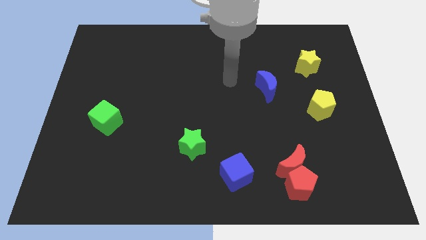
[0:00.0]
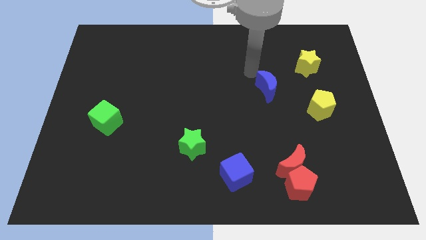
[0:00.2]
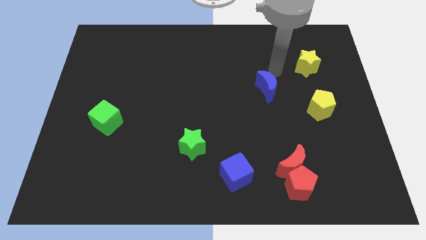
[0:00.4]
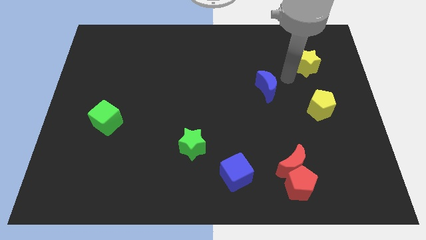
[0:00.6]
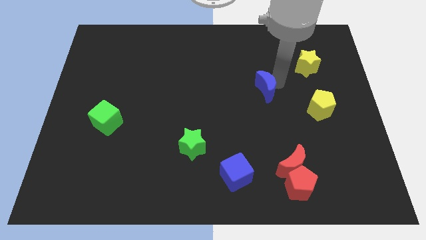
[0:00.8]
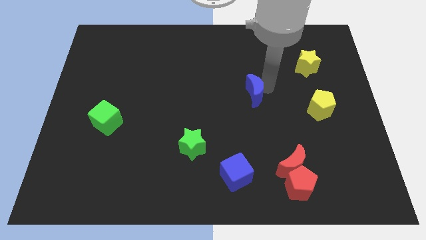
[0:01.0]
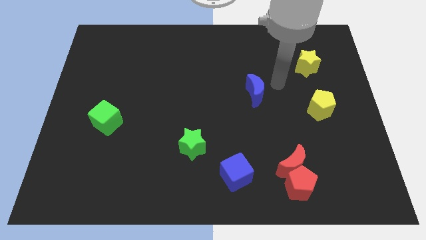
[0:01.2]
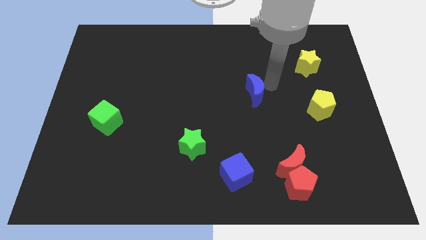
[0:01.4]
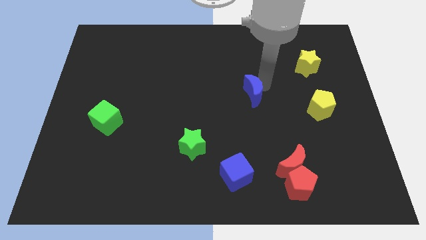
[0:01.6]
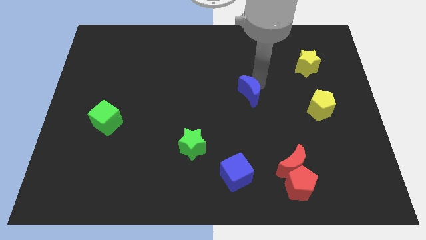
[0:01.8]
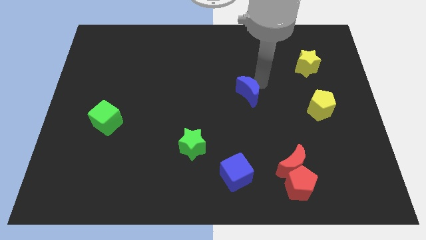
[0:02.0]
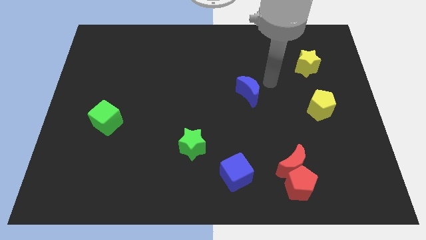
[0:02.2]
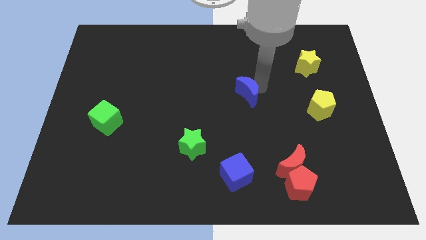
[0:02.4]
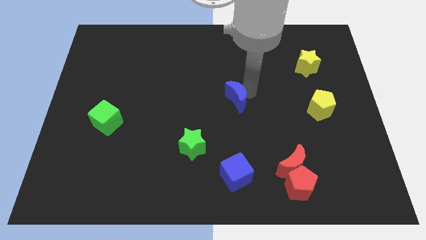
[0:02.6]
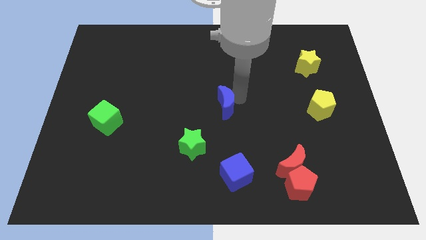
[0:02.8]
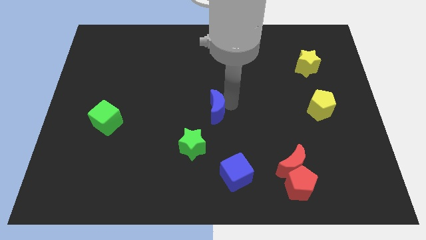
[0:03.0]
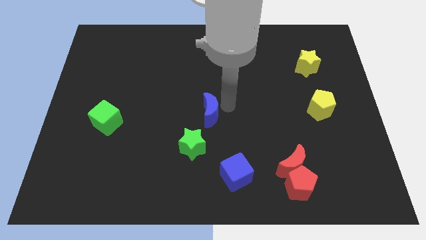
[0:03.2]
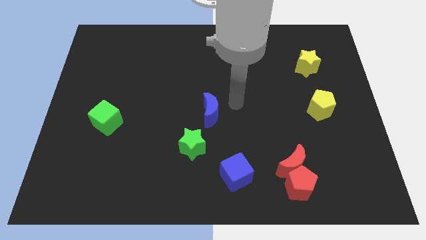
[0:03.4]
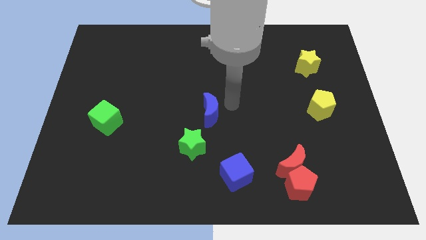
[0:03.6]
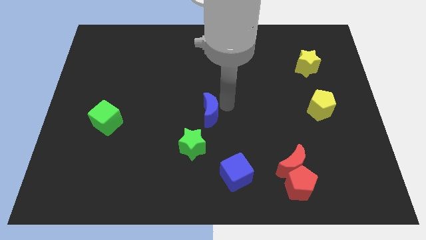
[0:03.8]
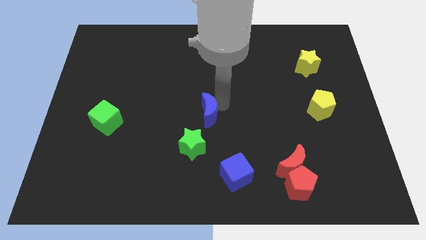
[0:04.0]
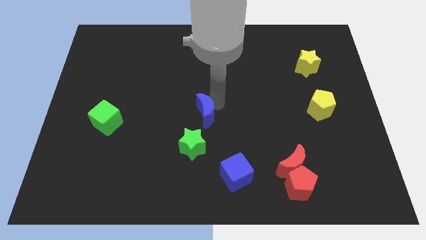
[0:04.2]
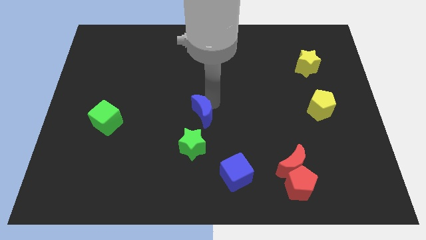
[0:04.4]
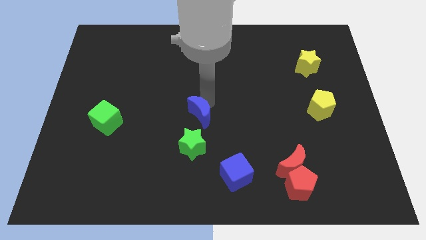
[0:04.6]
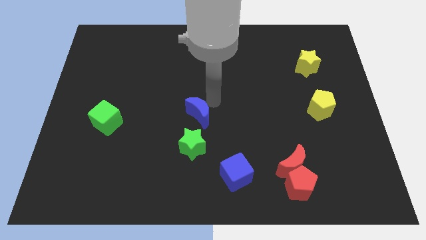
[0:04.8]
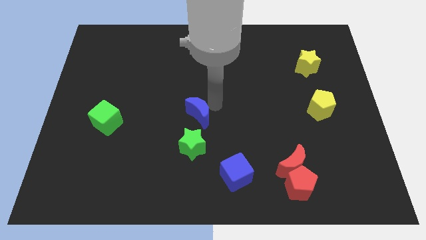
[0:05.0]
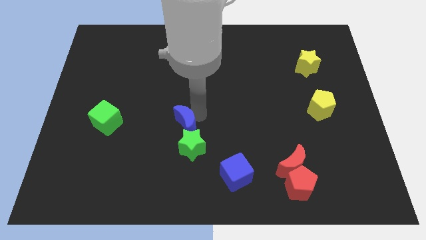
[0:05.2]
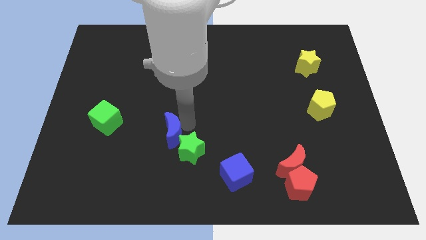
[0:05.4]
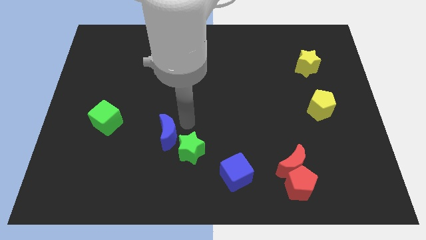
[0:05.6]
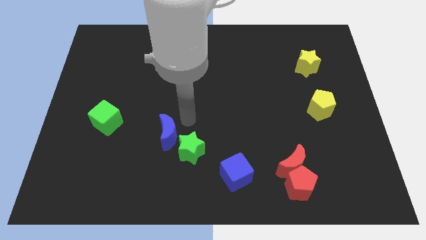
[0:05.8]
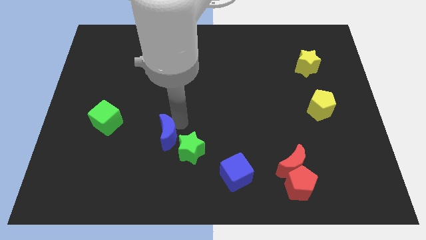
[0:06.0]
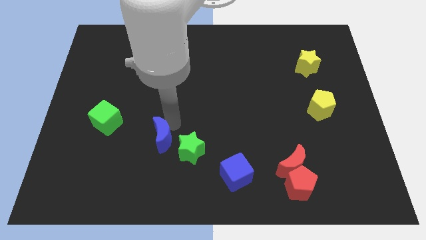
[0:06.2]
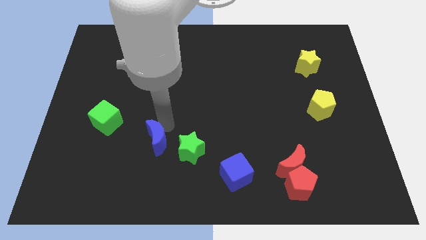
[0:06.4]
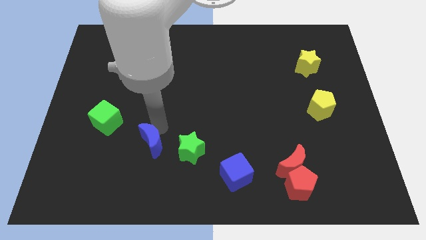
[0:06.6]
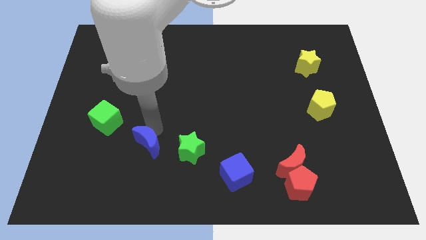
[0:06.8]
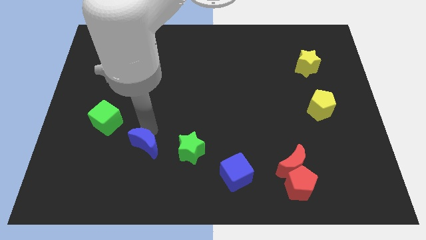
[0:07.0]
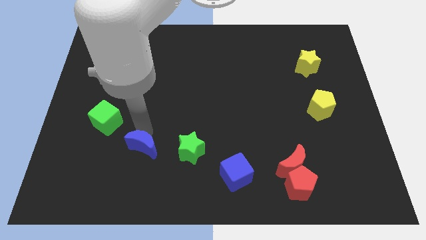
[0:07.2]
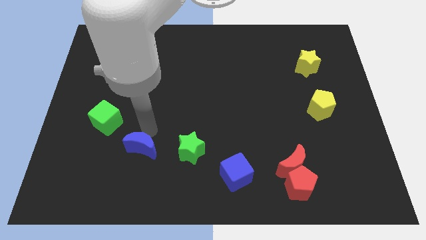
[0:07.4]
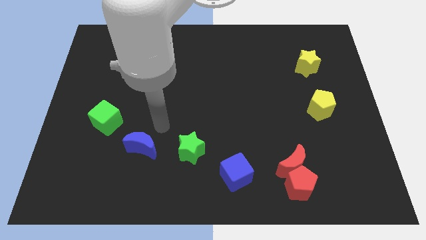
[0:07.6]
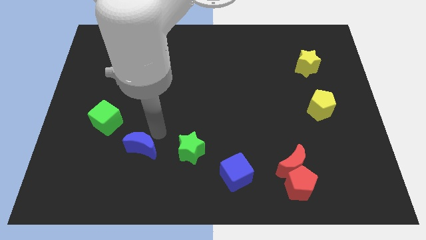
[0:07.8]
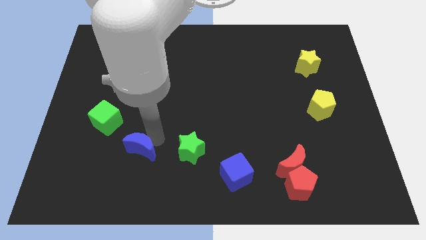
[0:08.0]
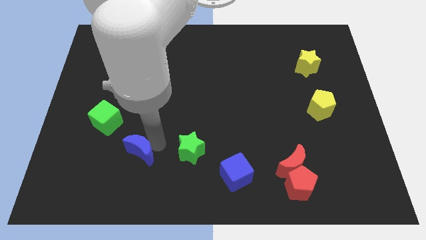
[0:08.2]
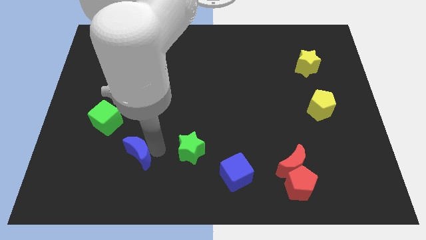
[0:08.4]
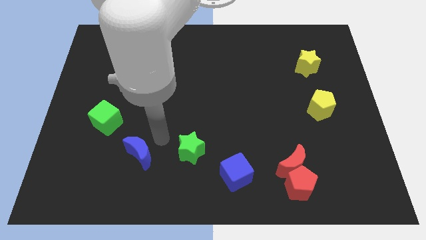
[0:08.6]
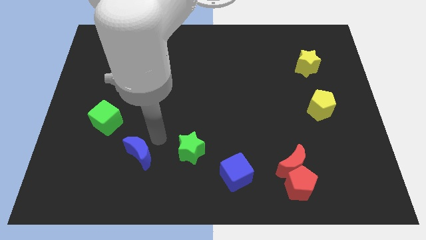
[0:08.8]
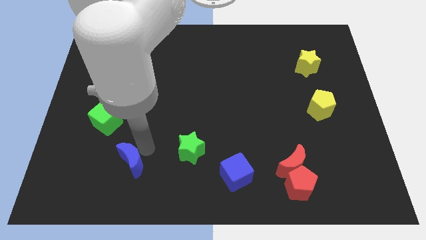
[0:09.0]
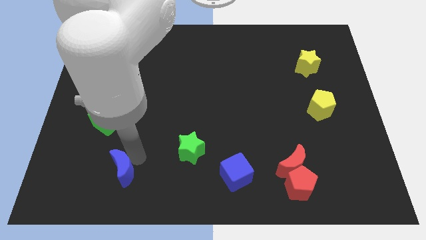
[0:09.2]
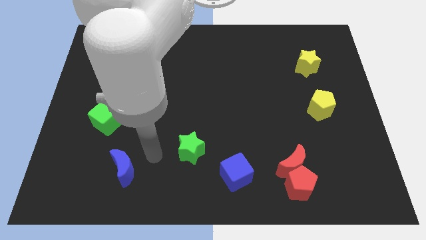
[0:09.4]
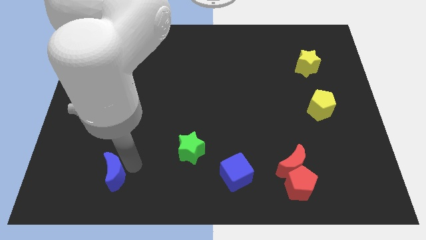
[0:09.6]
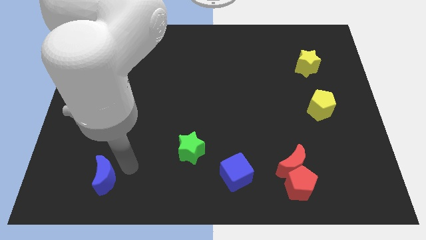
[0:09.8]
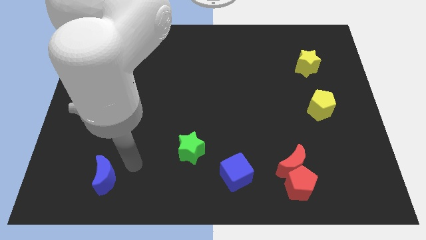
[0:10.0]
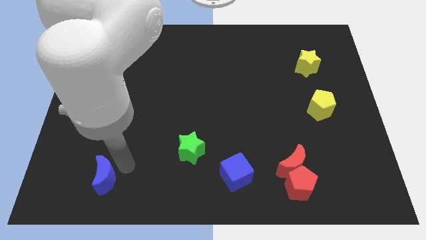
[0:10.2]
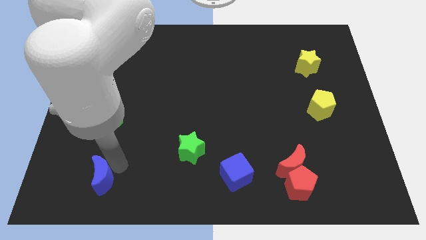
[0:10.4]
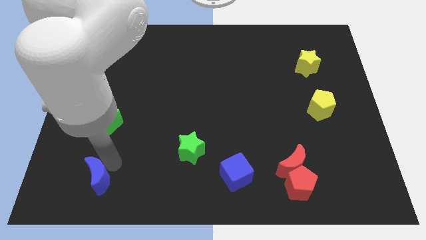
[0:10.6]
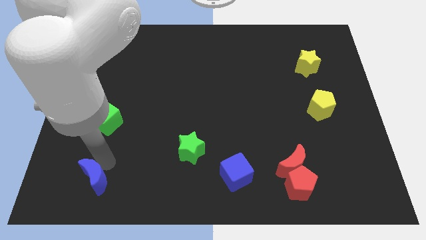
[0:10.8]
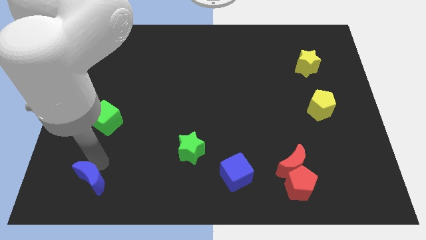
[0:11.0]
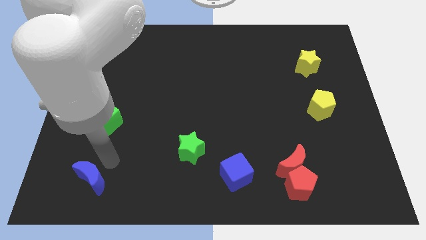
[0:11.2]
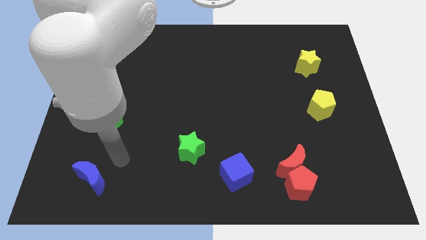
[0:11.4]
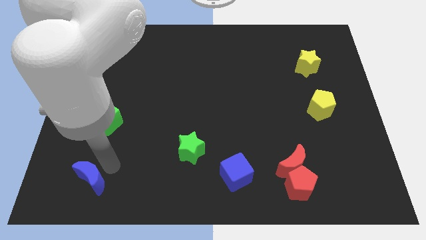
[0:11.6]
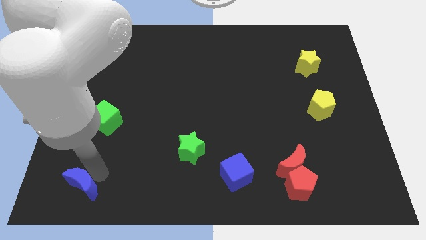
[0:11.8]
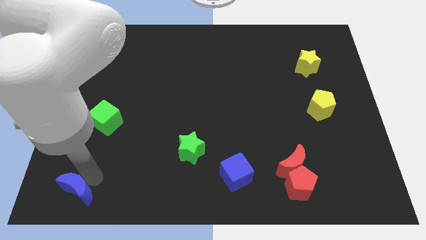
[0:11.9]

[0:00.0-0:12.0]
put the blue moon to the bottom left corner

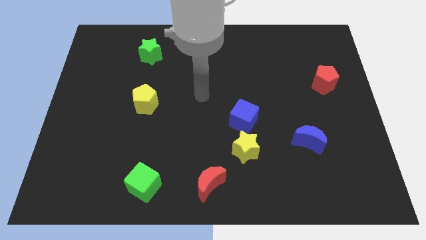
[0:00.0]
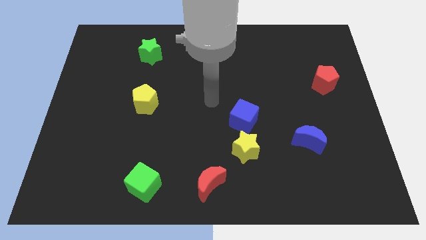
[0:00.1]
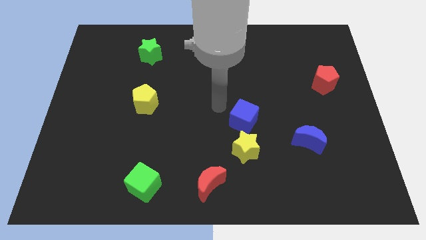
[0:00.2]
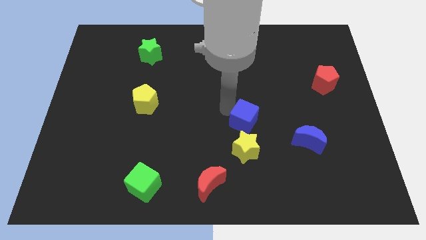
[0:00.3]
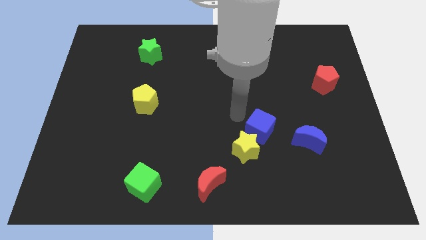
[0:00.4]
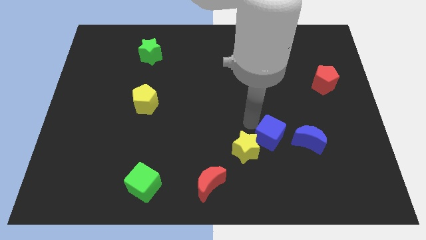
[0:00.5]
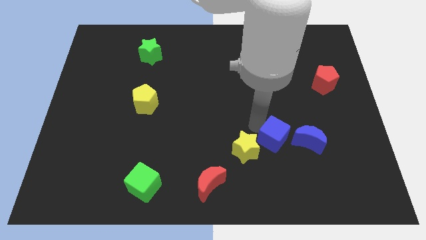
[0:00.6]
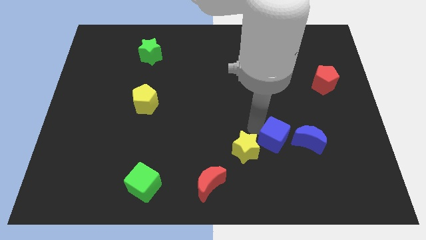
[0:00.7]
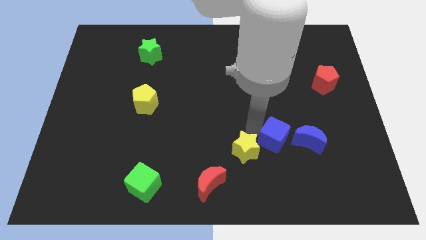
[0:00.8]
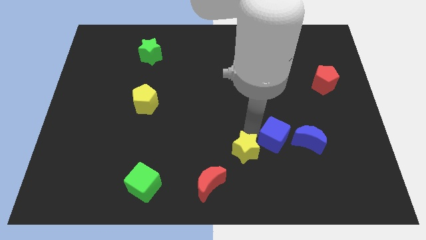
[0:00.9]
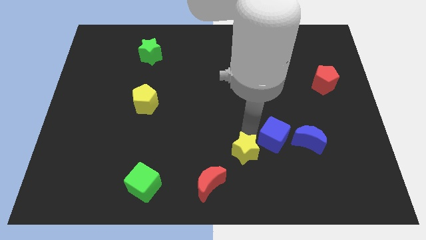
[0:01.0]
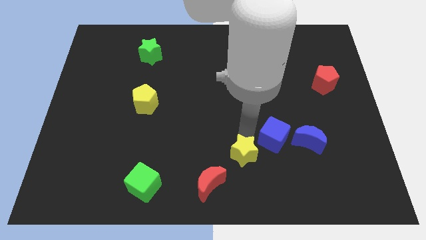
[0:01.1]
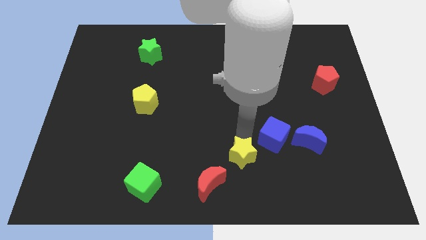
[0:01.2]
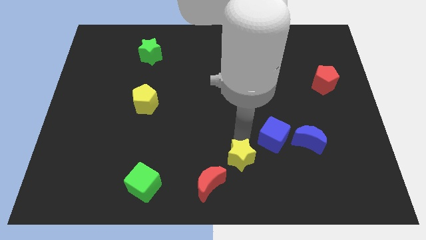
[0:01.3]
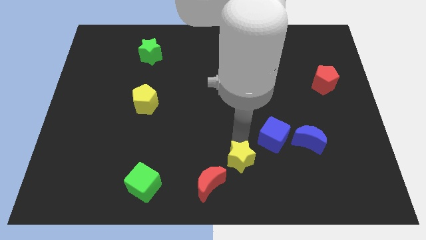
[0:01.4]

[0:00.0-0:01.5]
push the yellow star to the bottom
